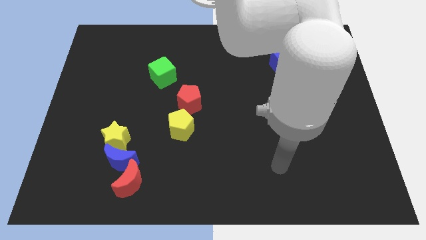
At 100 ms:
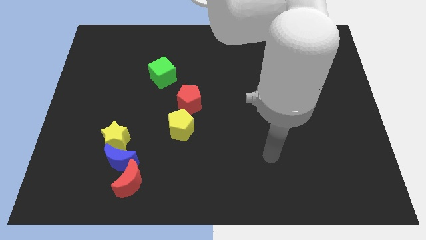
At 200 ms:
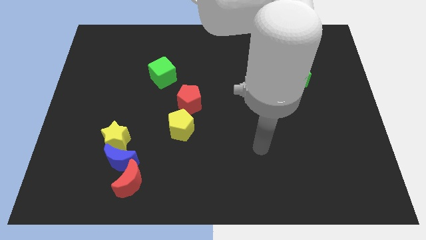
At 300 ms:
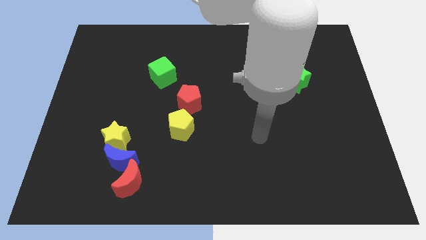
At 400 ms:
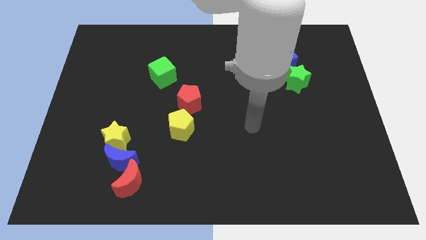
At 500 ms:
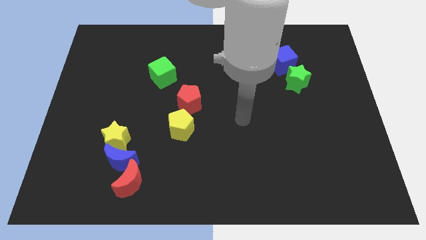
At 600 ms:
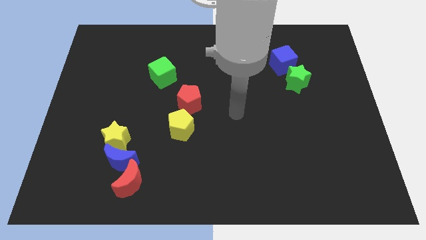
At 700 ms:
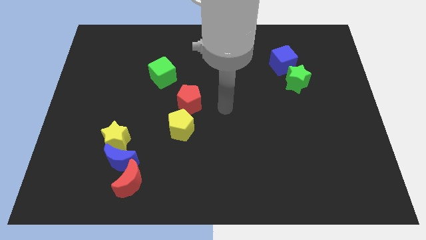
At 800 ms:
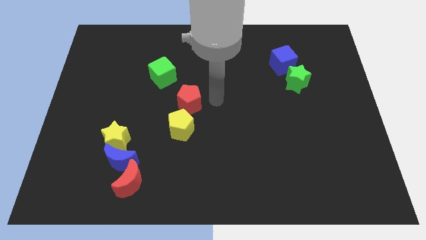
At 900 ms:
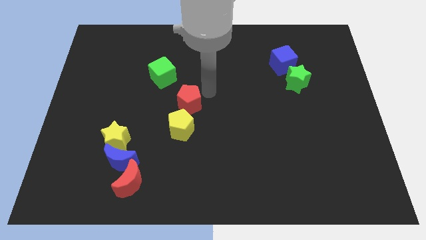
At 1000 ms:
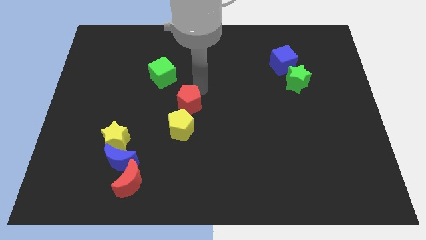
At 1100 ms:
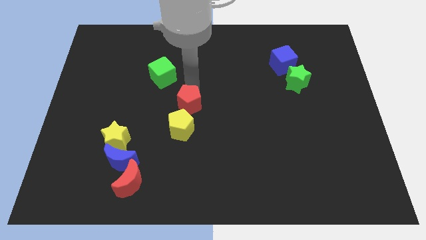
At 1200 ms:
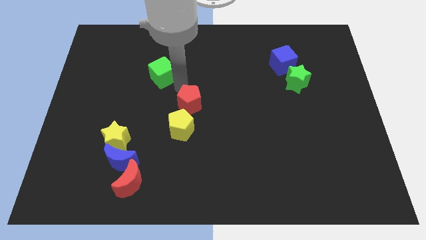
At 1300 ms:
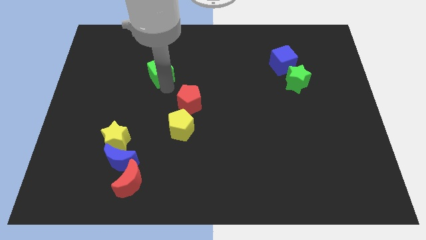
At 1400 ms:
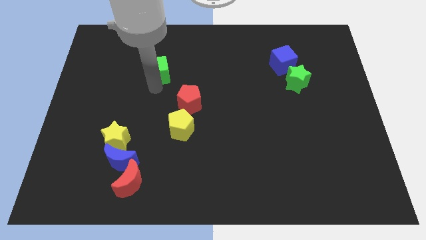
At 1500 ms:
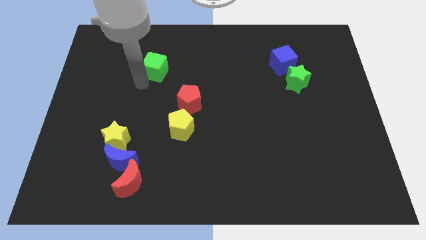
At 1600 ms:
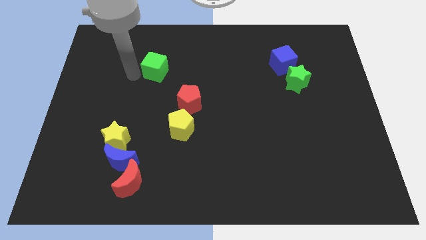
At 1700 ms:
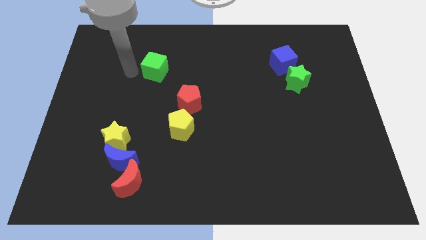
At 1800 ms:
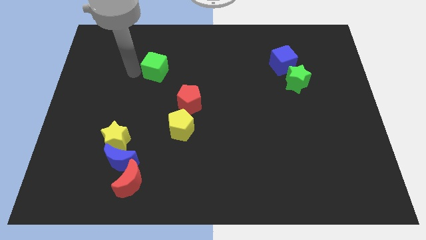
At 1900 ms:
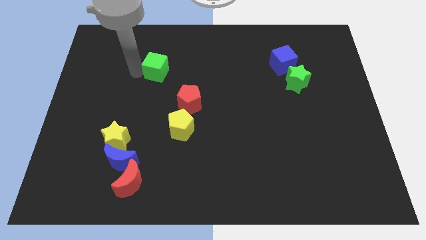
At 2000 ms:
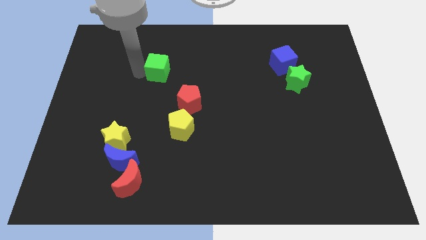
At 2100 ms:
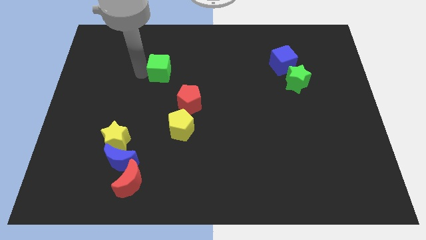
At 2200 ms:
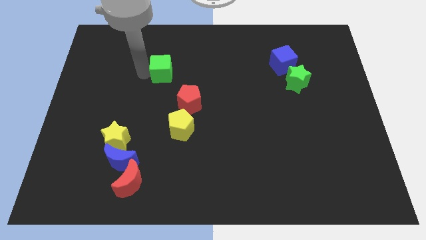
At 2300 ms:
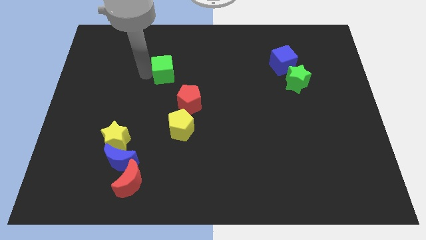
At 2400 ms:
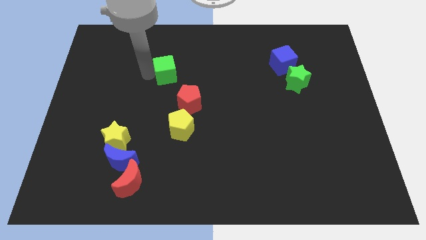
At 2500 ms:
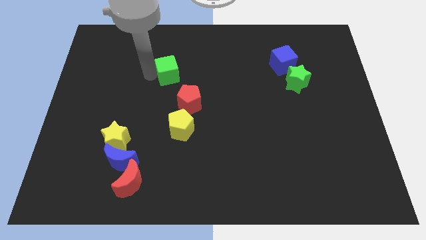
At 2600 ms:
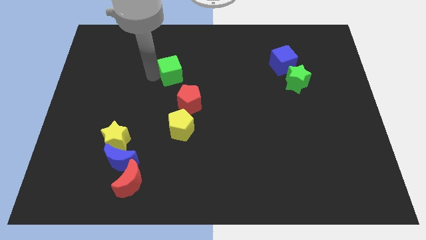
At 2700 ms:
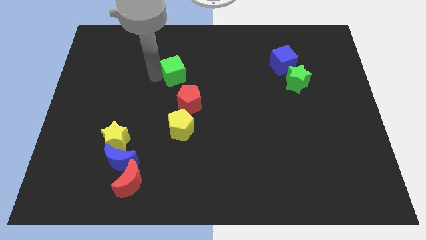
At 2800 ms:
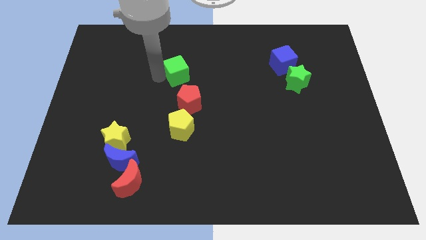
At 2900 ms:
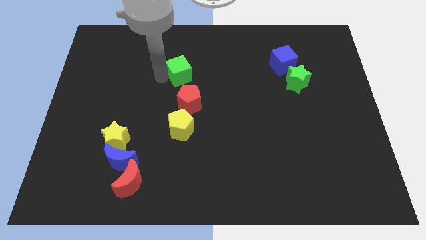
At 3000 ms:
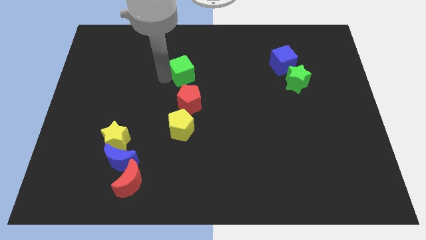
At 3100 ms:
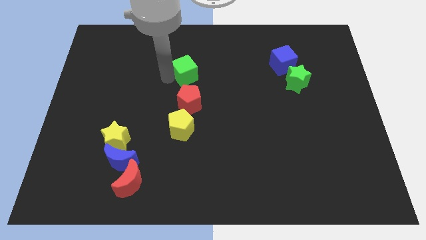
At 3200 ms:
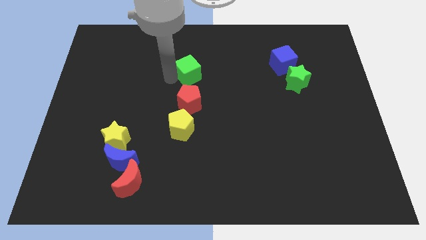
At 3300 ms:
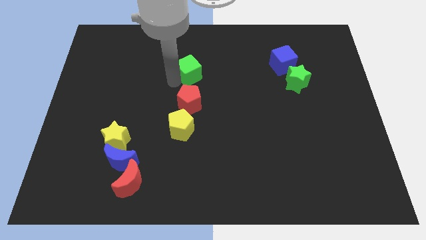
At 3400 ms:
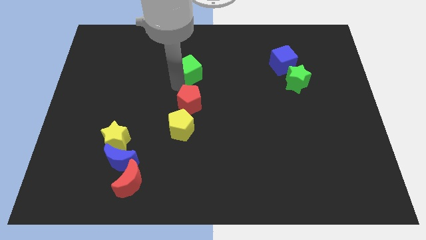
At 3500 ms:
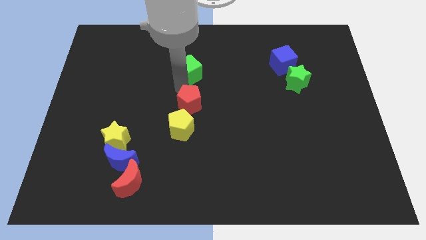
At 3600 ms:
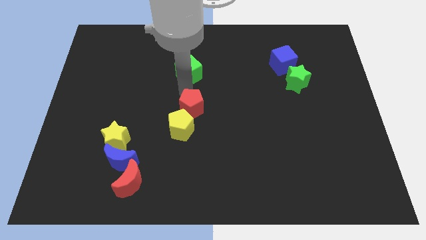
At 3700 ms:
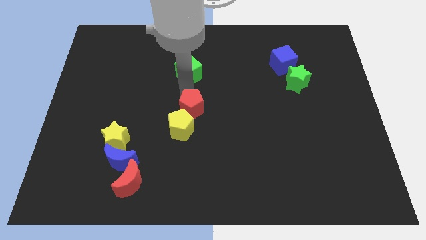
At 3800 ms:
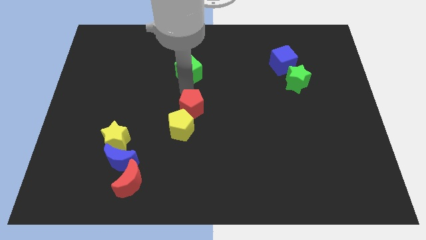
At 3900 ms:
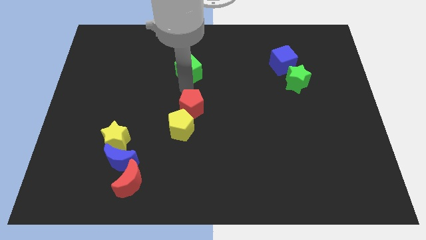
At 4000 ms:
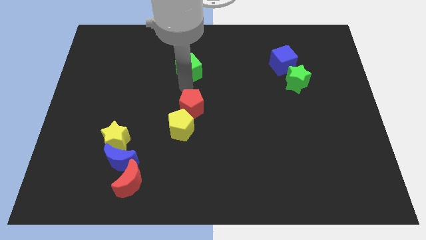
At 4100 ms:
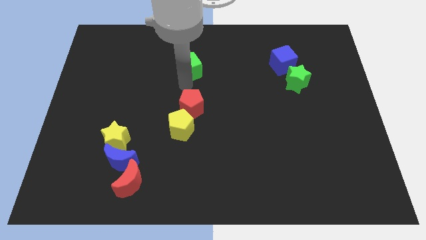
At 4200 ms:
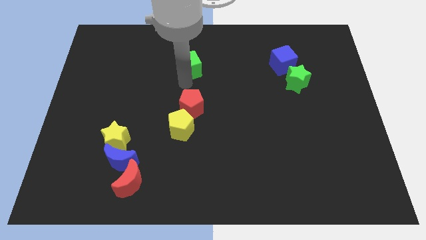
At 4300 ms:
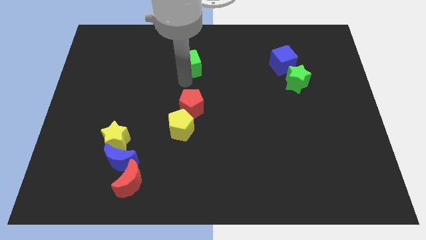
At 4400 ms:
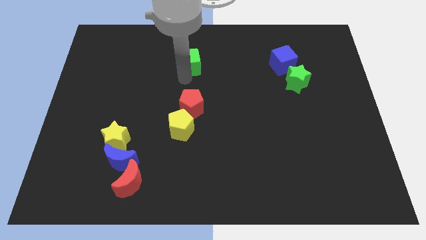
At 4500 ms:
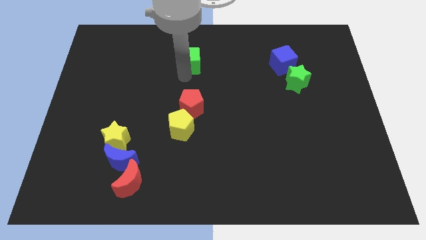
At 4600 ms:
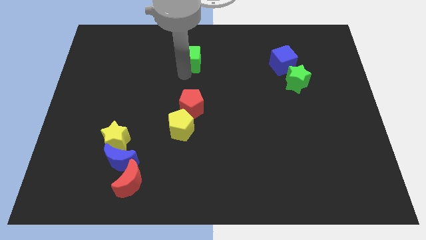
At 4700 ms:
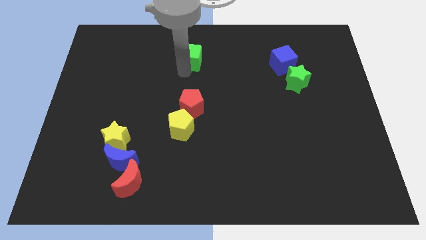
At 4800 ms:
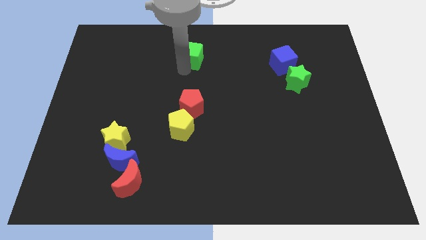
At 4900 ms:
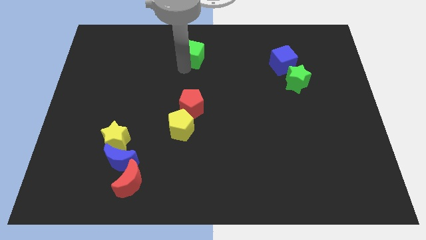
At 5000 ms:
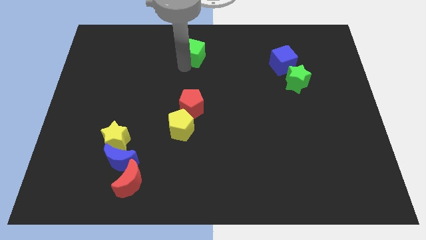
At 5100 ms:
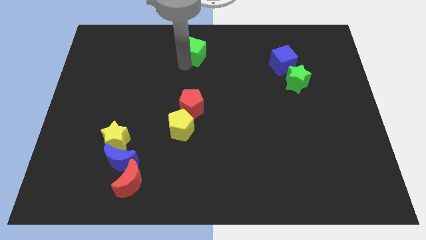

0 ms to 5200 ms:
push the green cube to the top

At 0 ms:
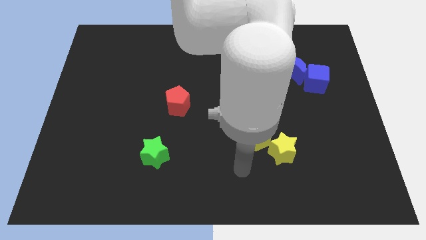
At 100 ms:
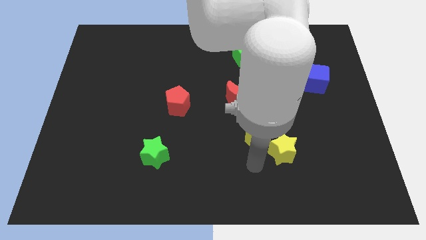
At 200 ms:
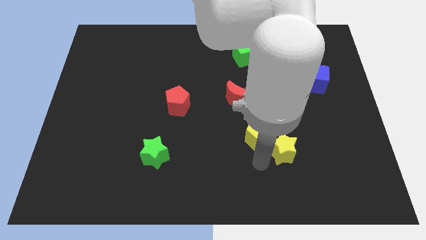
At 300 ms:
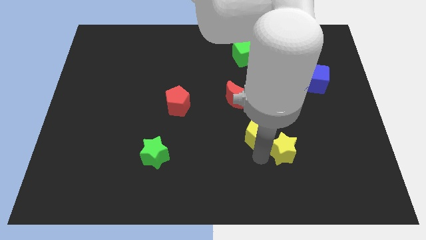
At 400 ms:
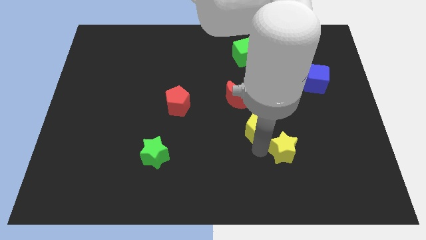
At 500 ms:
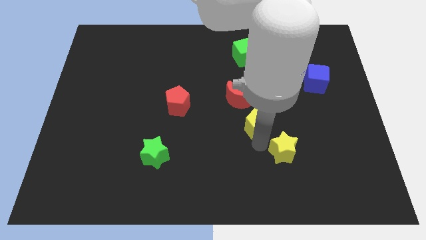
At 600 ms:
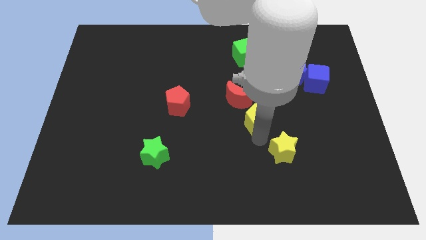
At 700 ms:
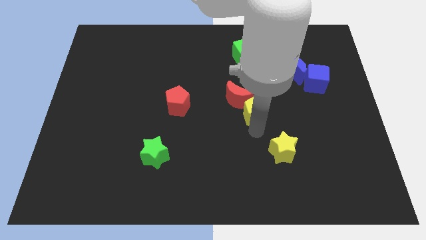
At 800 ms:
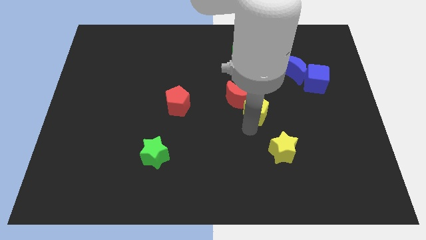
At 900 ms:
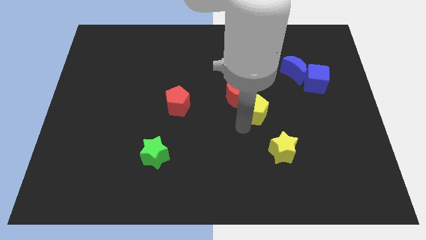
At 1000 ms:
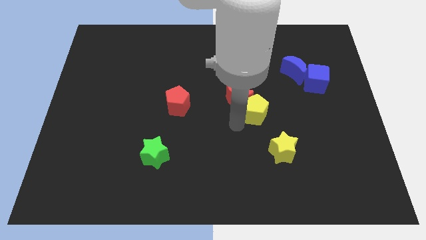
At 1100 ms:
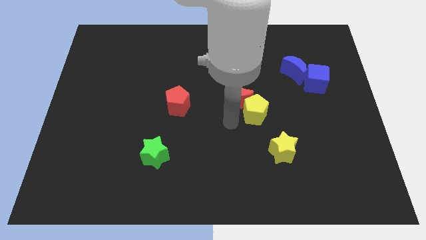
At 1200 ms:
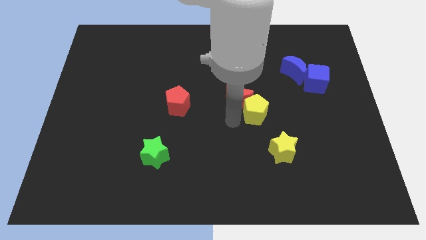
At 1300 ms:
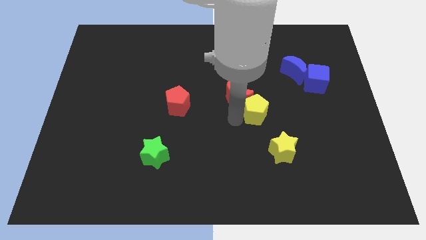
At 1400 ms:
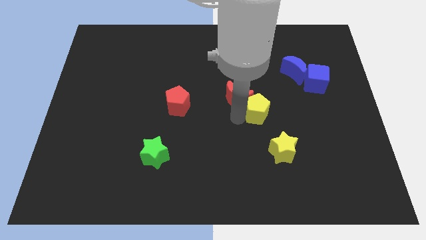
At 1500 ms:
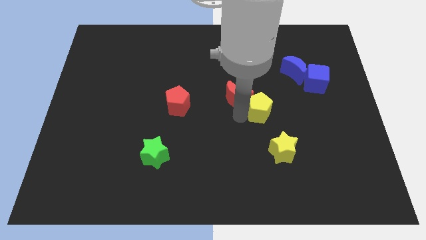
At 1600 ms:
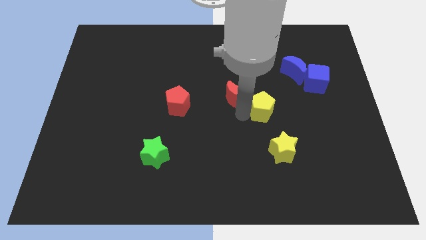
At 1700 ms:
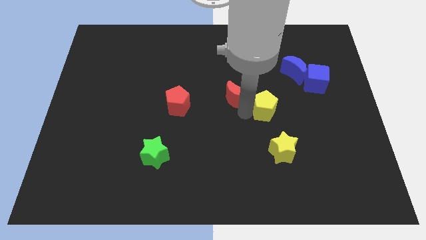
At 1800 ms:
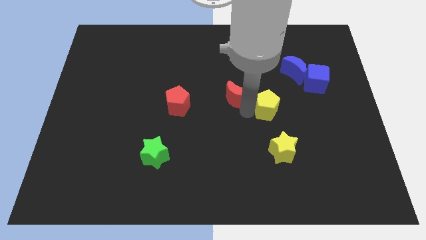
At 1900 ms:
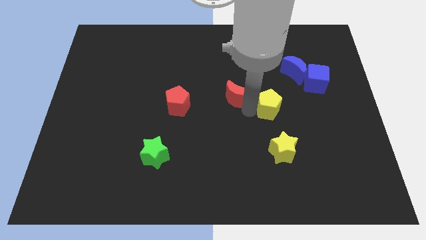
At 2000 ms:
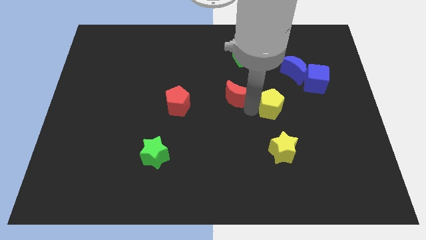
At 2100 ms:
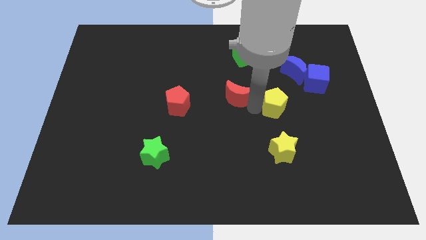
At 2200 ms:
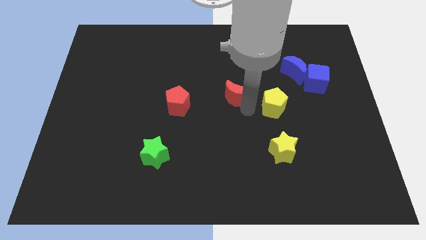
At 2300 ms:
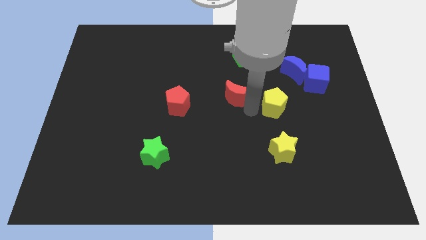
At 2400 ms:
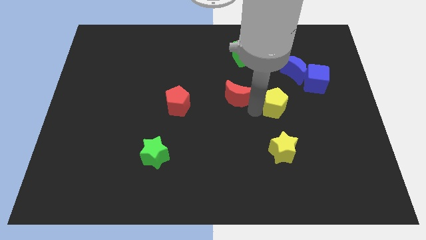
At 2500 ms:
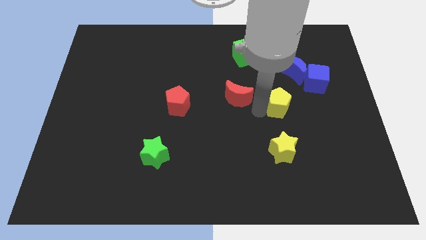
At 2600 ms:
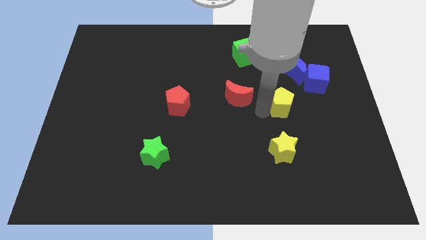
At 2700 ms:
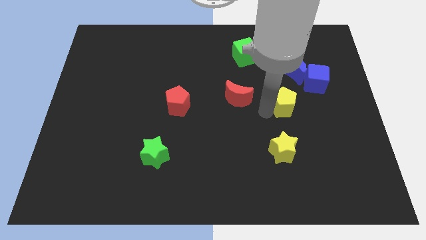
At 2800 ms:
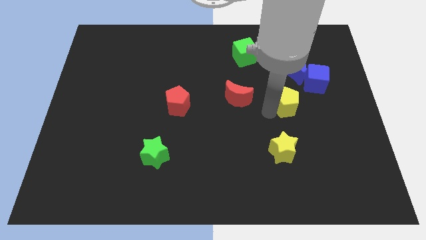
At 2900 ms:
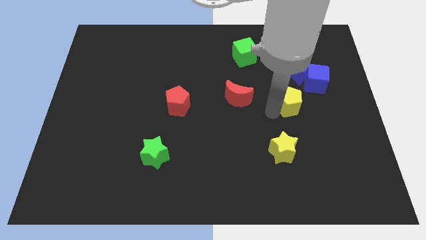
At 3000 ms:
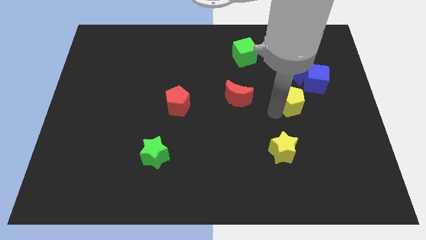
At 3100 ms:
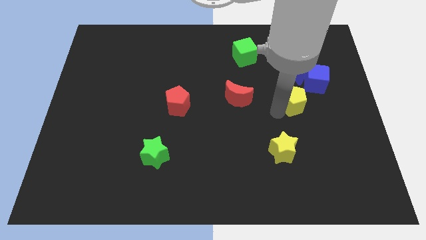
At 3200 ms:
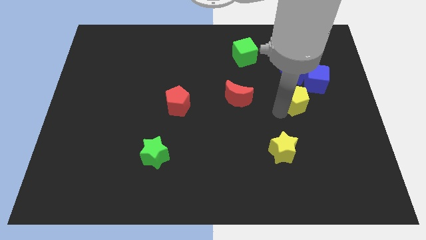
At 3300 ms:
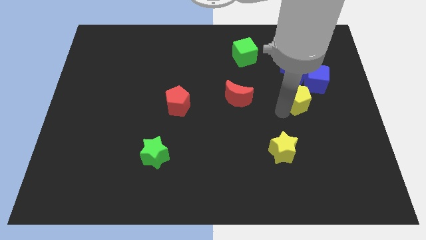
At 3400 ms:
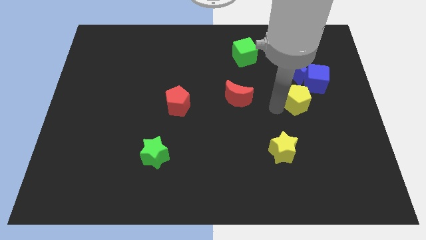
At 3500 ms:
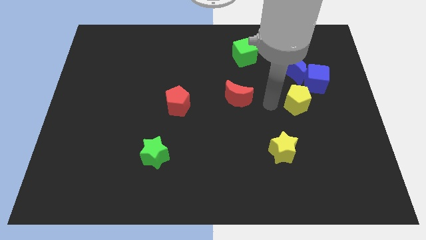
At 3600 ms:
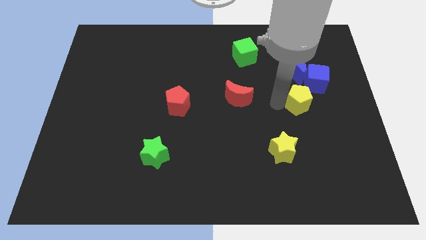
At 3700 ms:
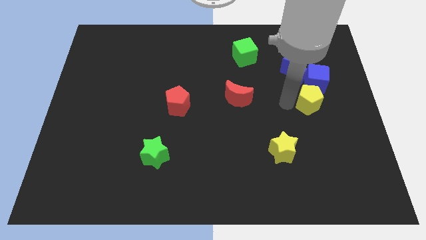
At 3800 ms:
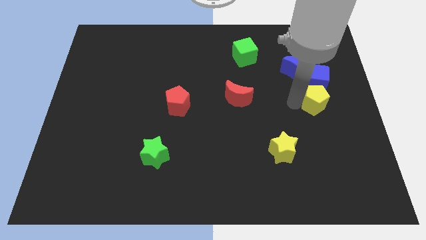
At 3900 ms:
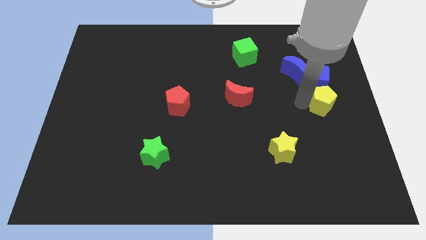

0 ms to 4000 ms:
put the yellow pentagon to the right side of the board
